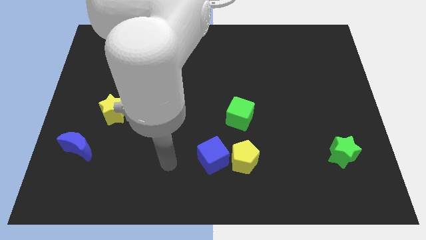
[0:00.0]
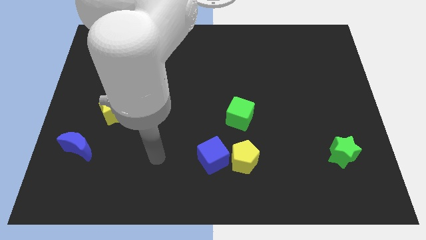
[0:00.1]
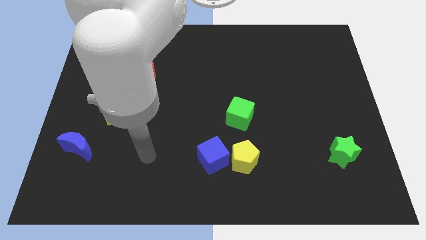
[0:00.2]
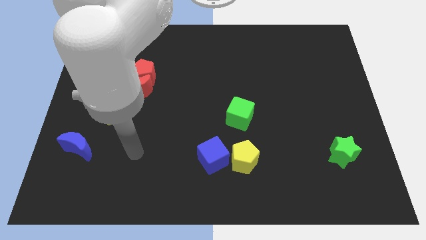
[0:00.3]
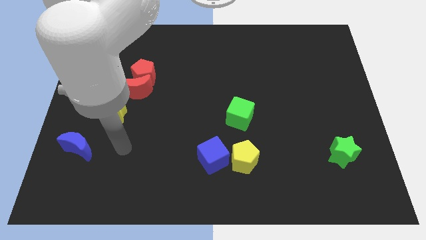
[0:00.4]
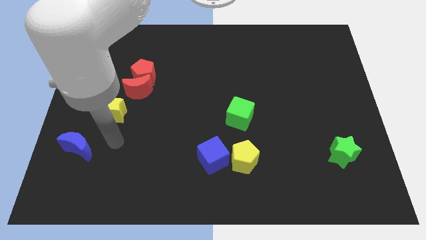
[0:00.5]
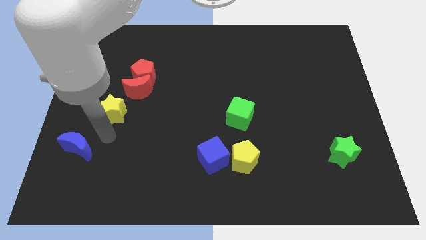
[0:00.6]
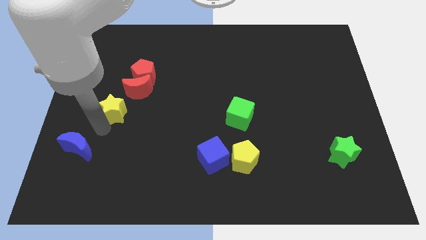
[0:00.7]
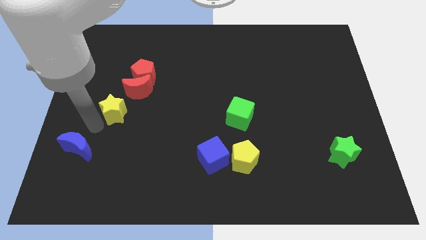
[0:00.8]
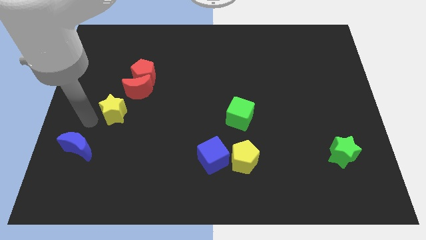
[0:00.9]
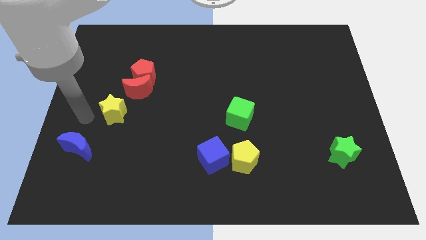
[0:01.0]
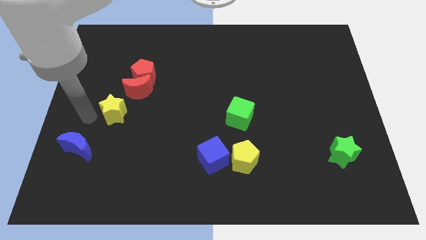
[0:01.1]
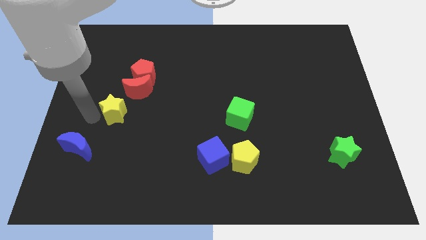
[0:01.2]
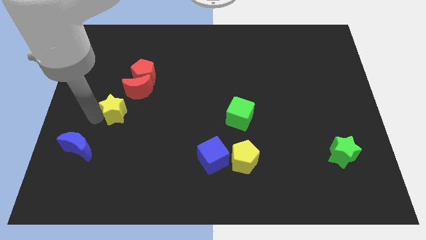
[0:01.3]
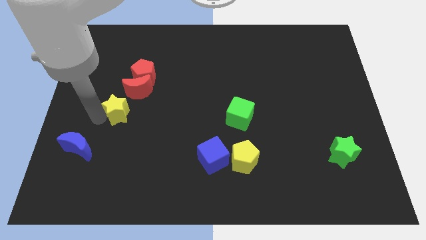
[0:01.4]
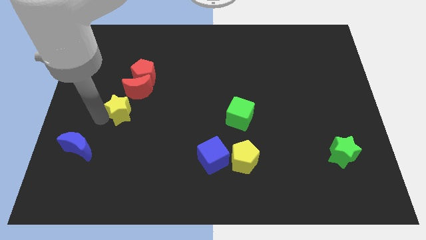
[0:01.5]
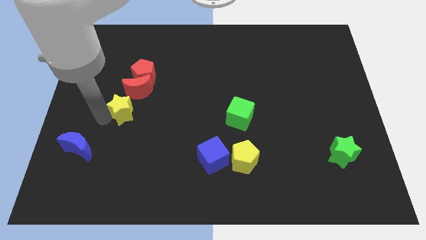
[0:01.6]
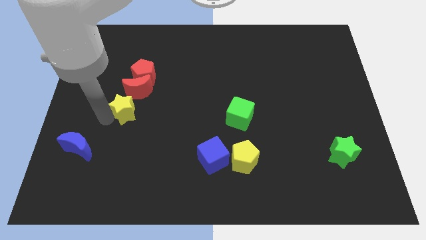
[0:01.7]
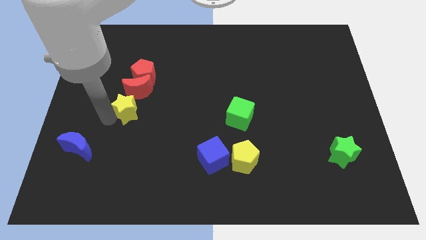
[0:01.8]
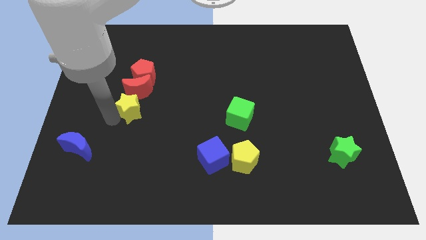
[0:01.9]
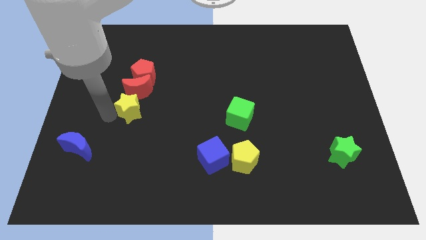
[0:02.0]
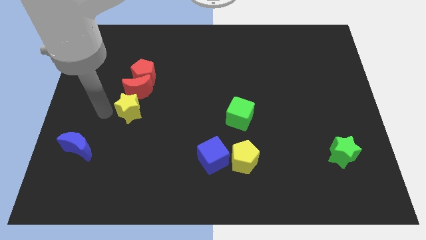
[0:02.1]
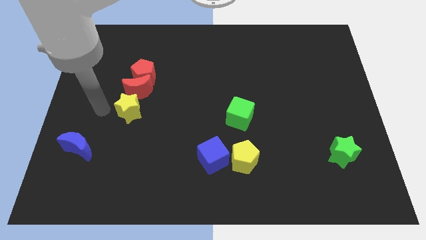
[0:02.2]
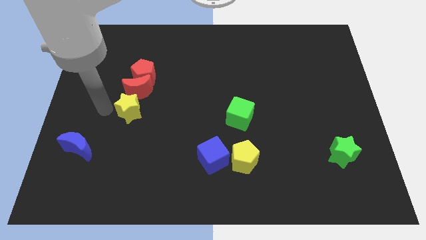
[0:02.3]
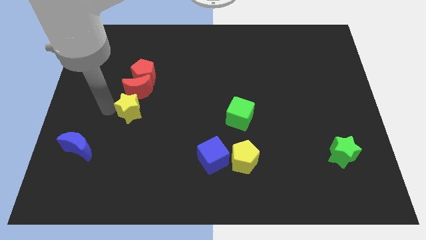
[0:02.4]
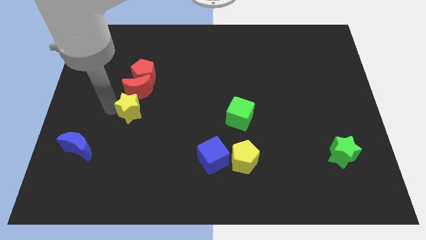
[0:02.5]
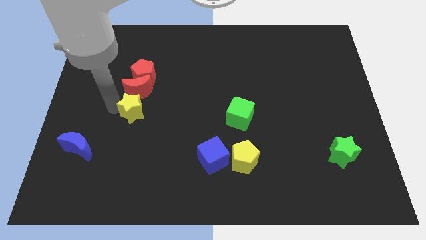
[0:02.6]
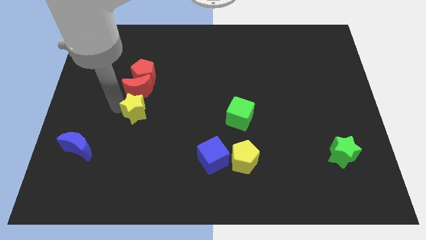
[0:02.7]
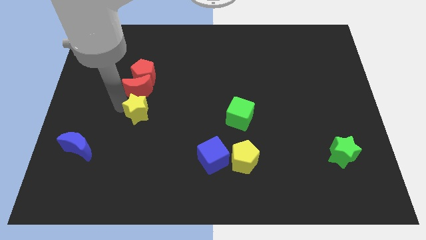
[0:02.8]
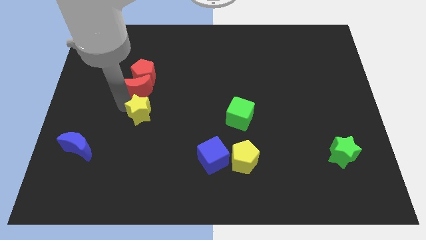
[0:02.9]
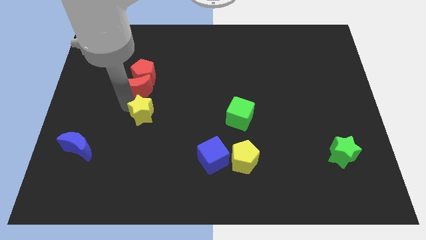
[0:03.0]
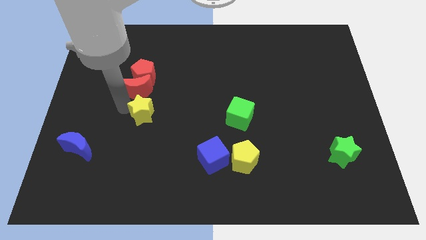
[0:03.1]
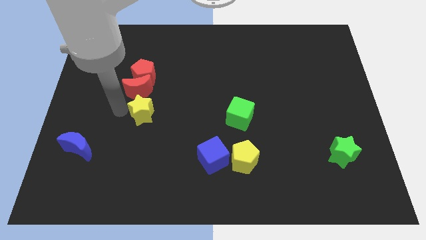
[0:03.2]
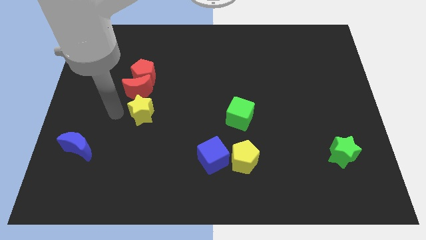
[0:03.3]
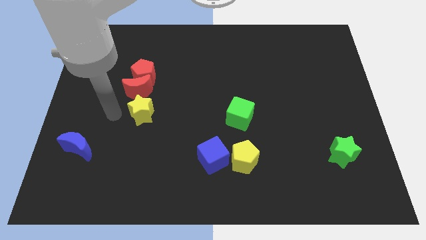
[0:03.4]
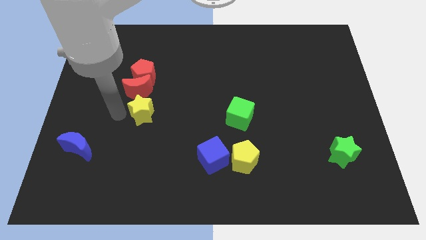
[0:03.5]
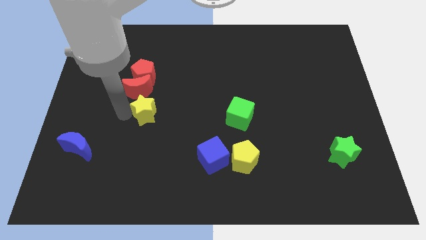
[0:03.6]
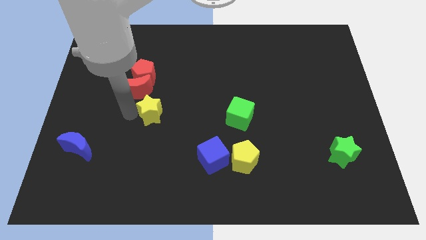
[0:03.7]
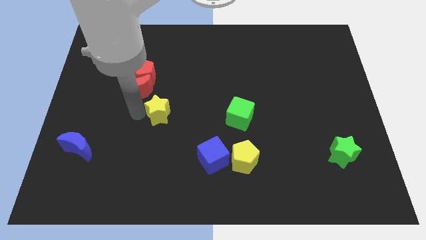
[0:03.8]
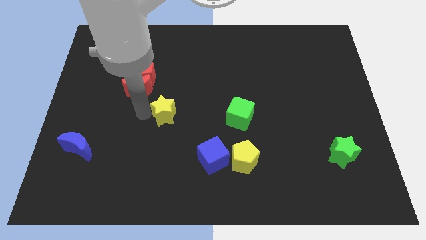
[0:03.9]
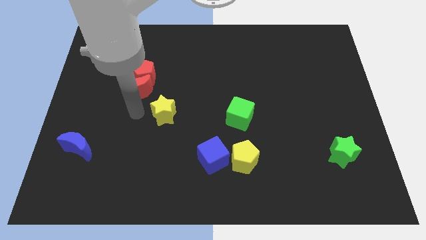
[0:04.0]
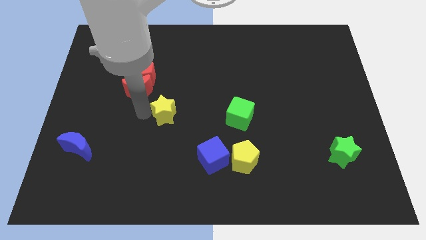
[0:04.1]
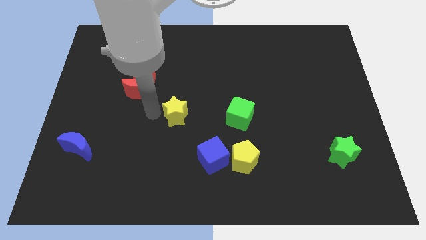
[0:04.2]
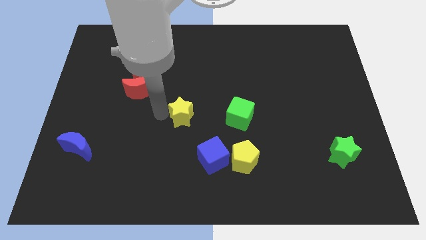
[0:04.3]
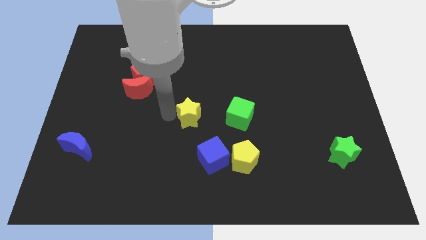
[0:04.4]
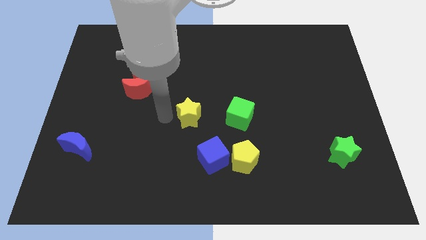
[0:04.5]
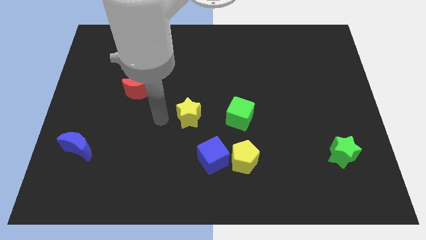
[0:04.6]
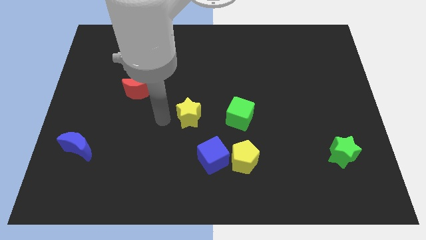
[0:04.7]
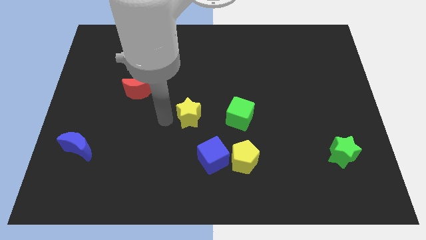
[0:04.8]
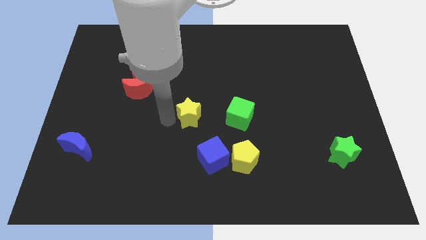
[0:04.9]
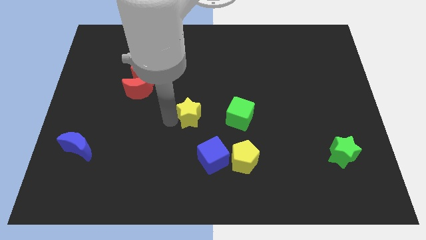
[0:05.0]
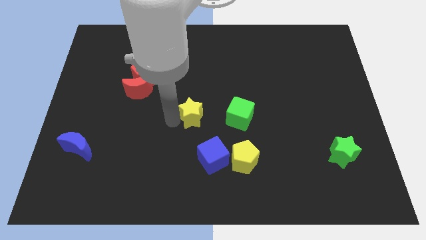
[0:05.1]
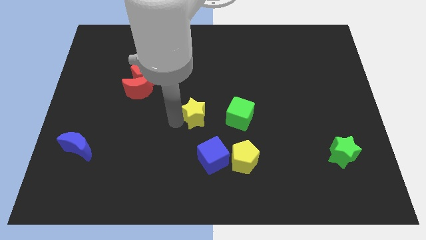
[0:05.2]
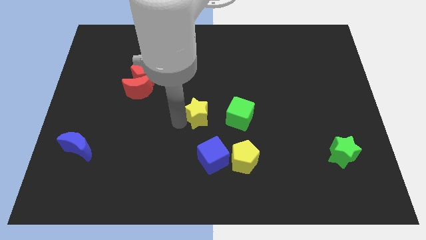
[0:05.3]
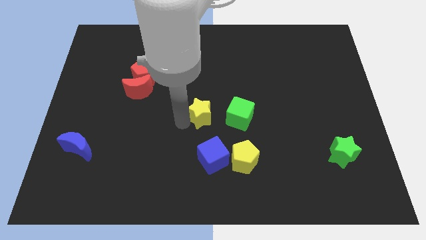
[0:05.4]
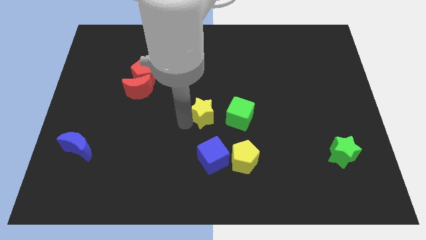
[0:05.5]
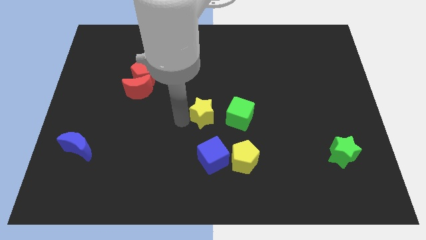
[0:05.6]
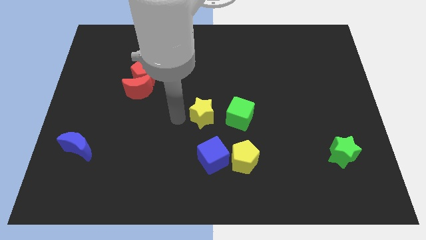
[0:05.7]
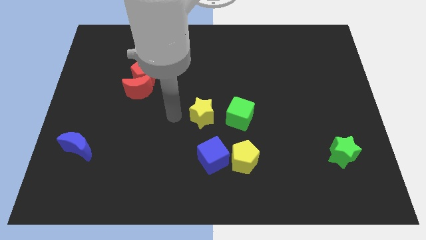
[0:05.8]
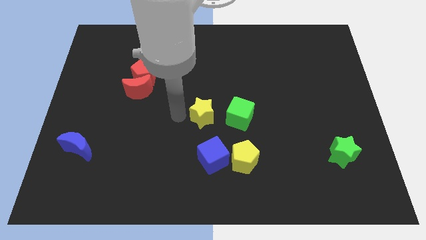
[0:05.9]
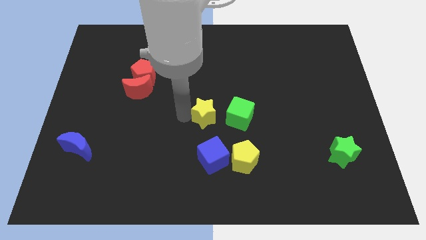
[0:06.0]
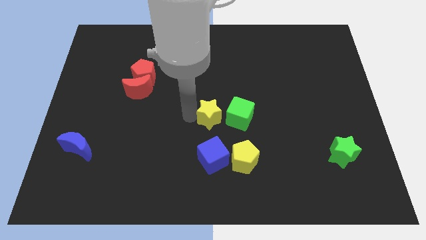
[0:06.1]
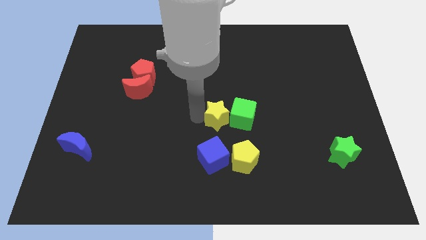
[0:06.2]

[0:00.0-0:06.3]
slide the yellow star to the green cube

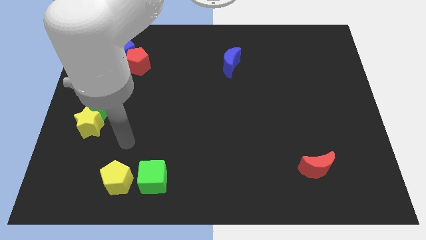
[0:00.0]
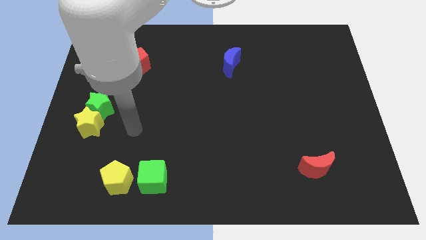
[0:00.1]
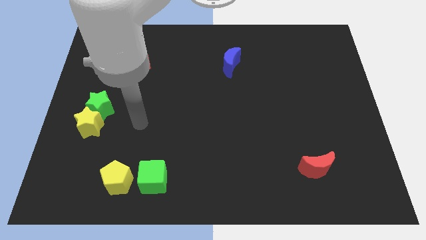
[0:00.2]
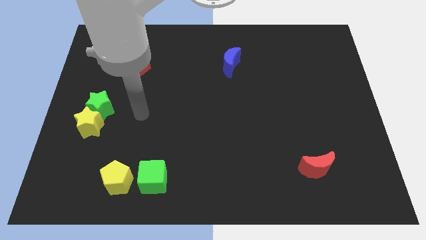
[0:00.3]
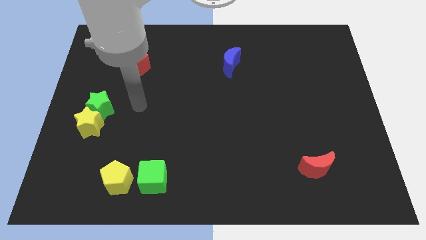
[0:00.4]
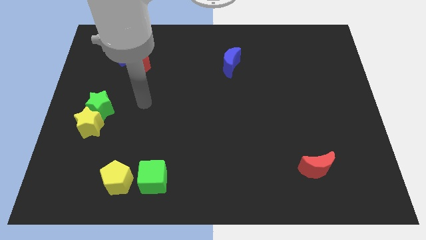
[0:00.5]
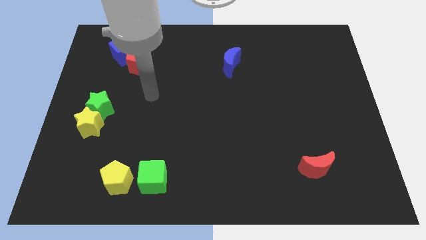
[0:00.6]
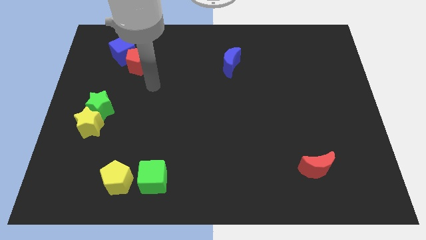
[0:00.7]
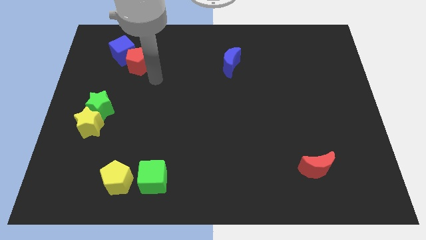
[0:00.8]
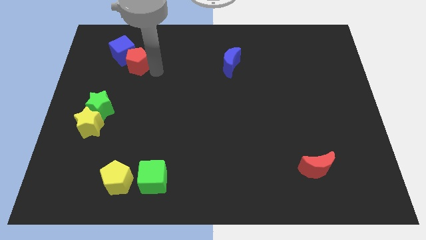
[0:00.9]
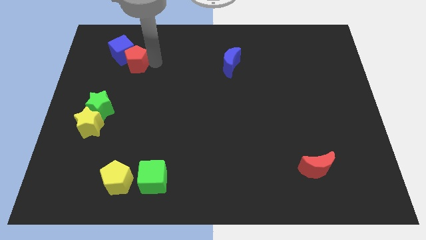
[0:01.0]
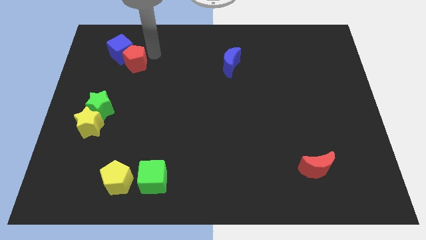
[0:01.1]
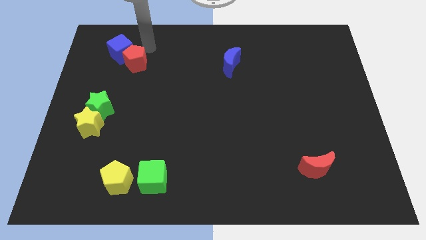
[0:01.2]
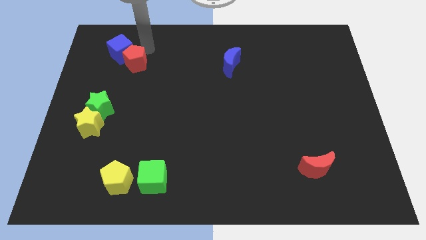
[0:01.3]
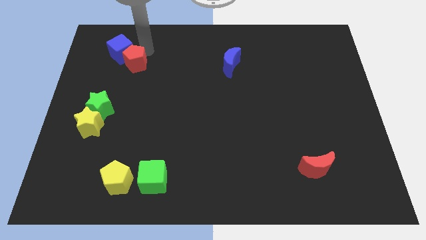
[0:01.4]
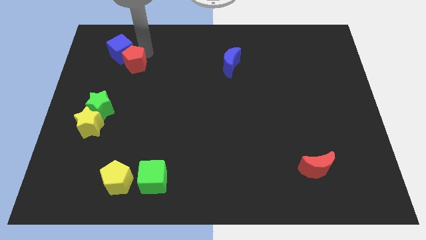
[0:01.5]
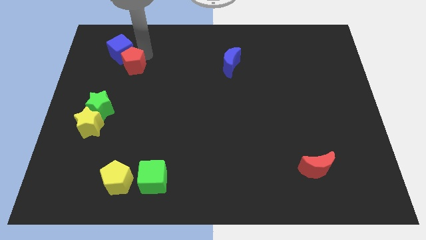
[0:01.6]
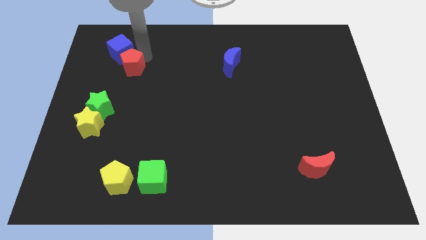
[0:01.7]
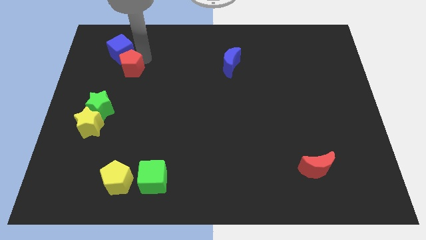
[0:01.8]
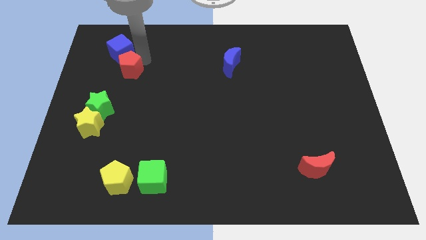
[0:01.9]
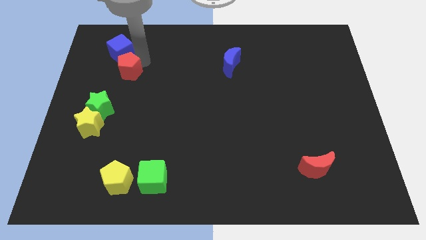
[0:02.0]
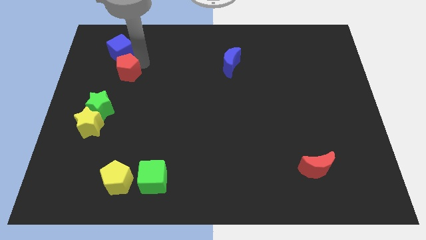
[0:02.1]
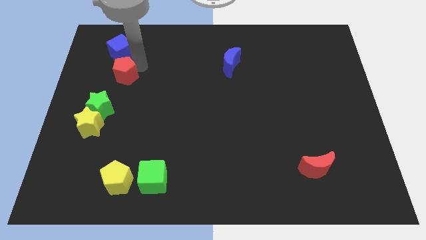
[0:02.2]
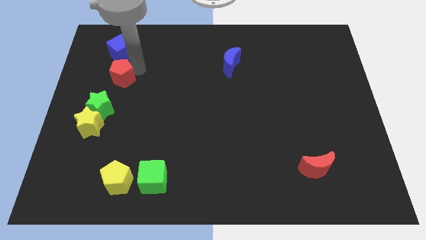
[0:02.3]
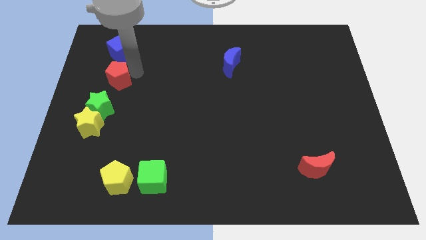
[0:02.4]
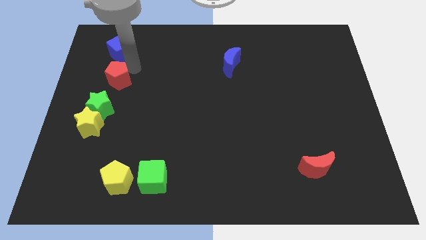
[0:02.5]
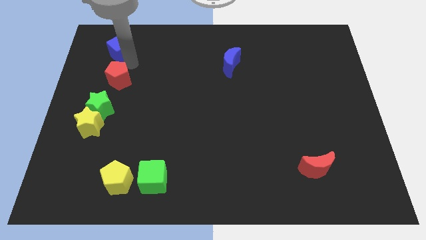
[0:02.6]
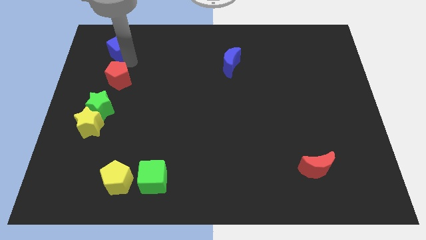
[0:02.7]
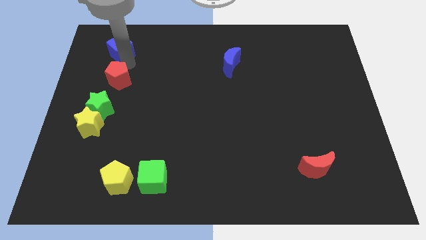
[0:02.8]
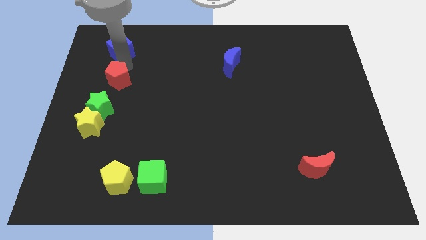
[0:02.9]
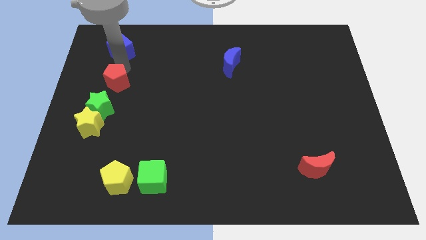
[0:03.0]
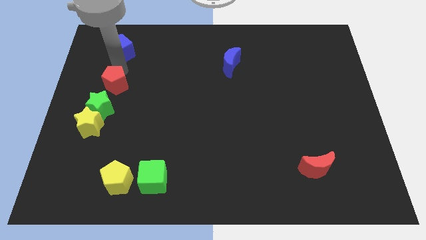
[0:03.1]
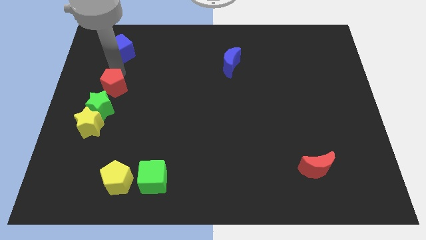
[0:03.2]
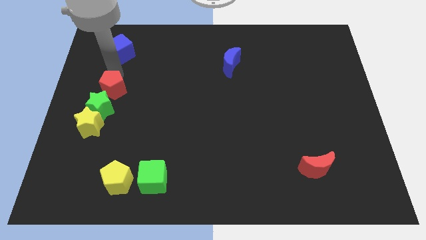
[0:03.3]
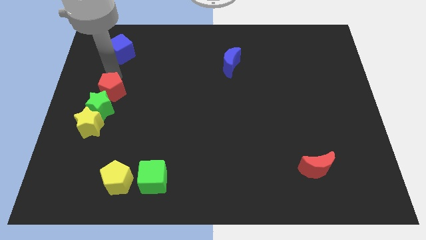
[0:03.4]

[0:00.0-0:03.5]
put the red pentagon towards the green star
